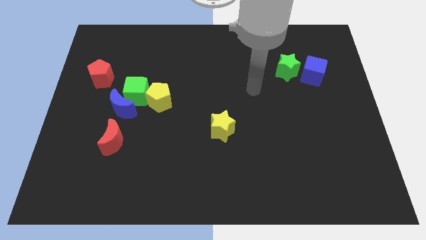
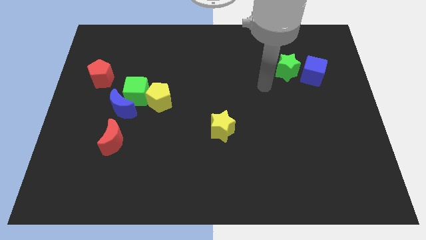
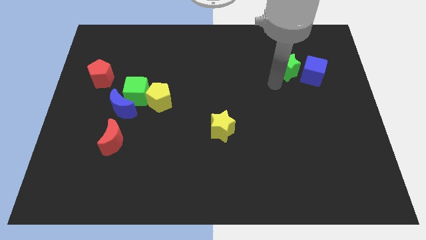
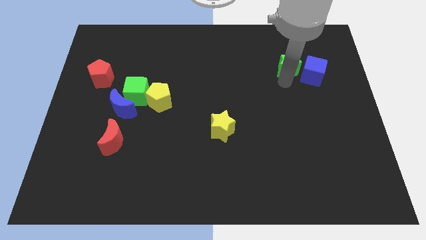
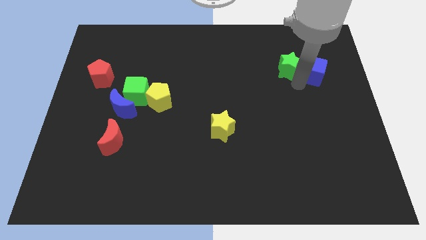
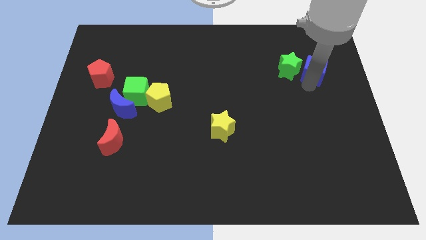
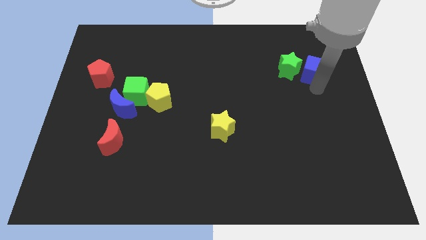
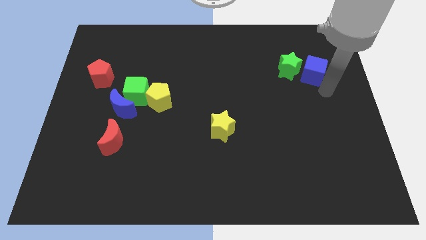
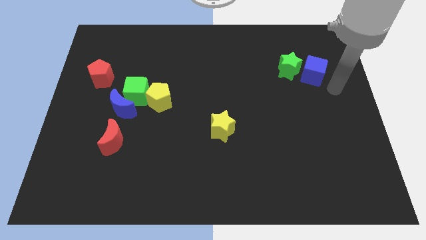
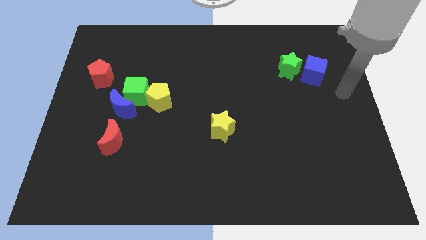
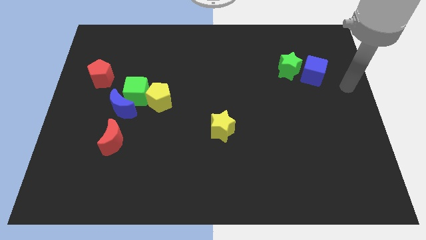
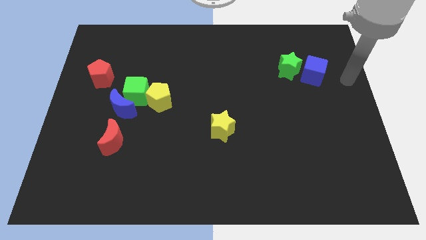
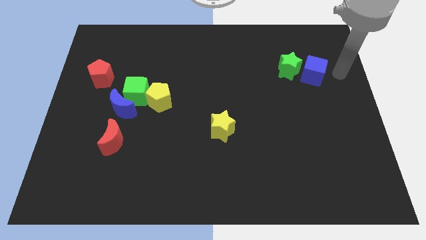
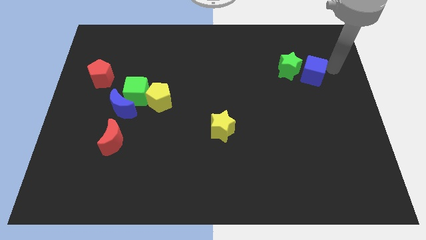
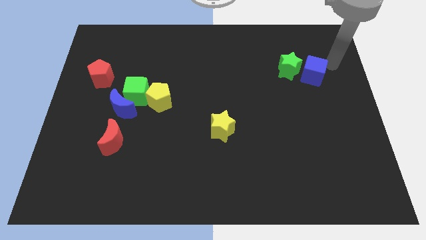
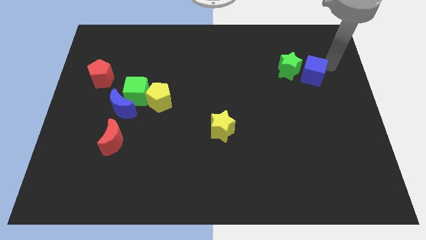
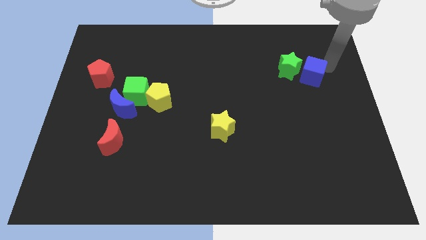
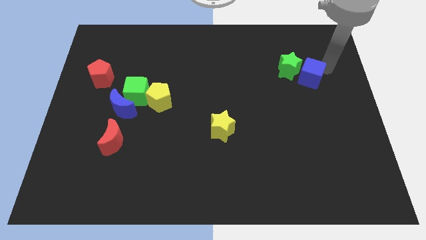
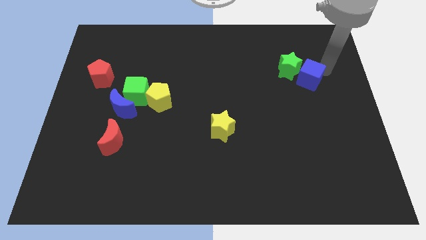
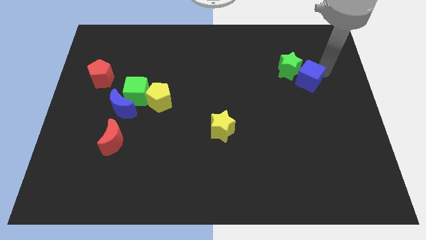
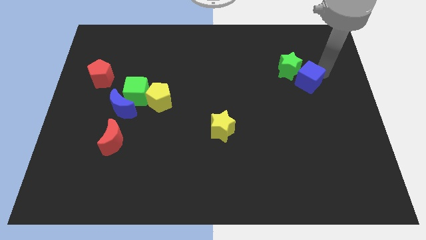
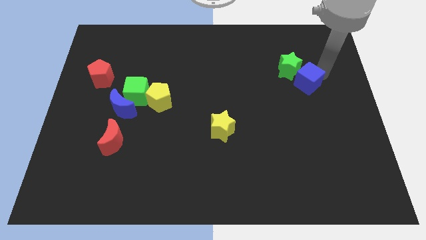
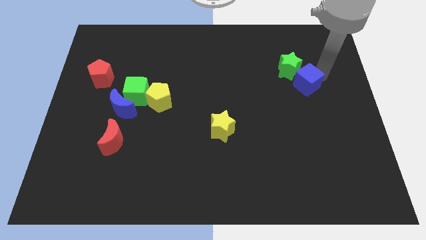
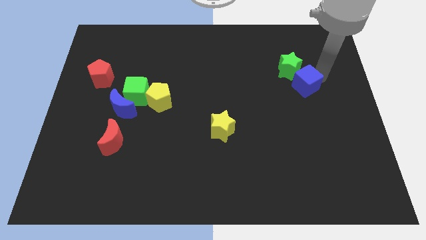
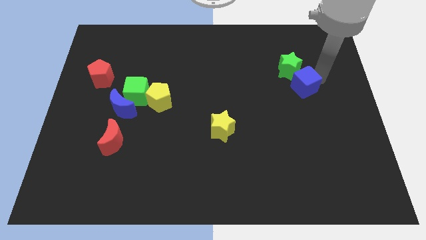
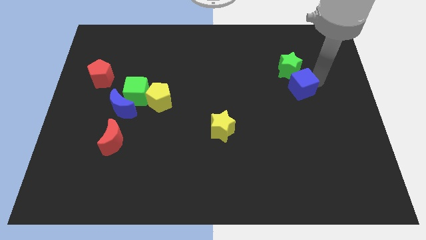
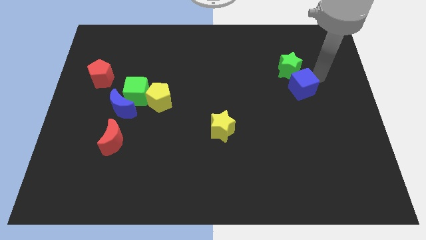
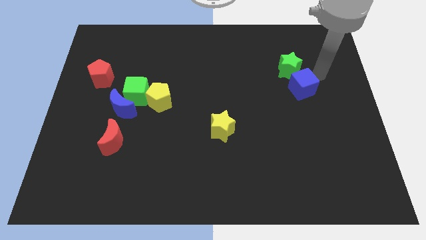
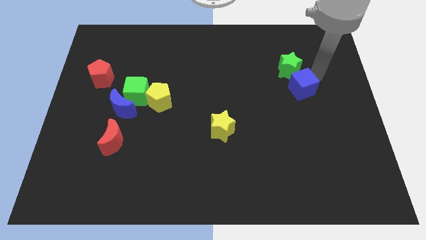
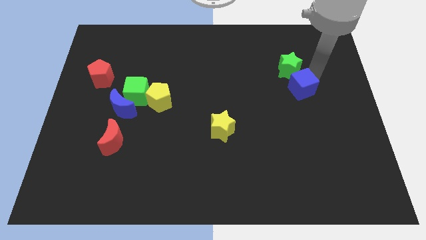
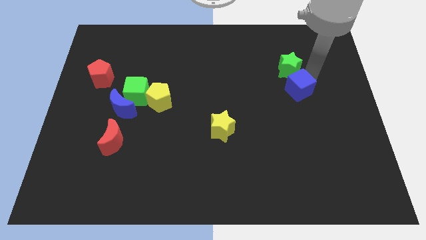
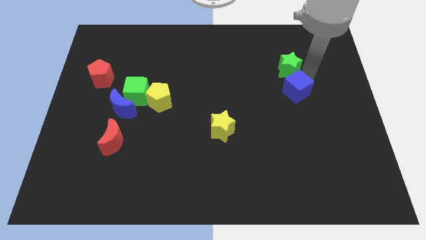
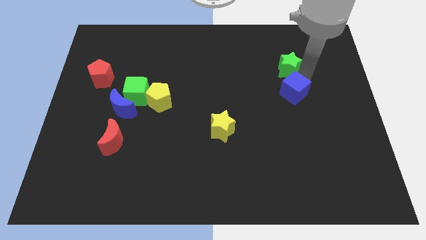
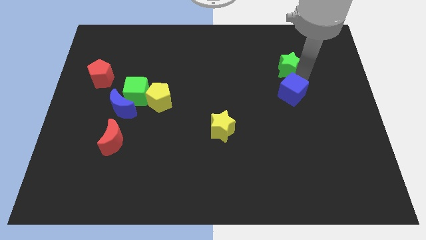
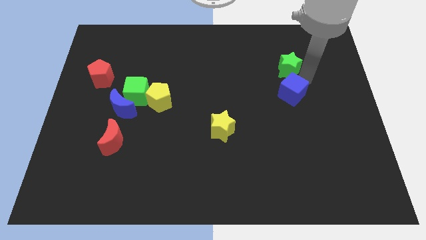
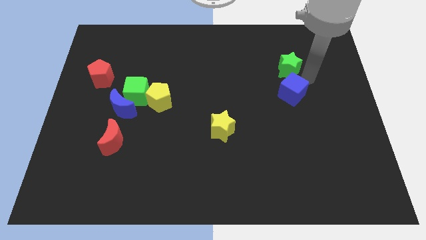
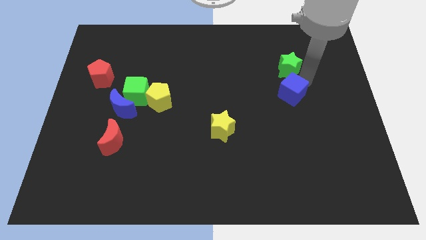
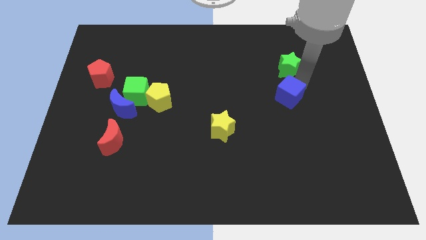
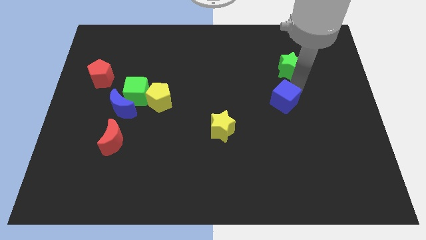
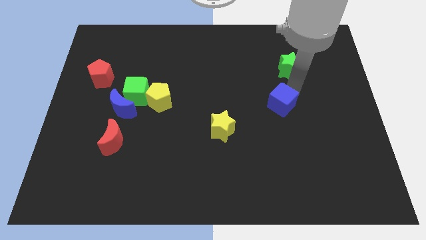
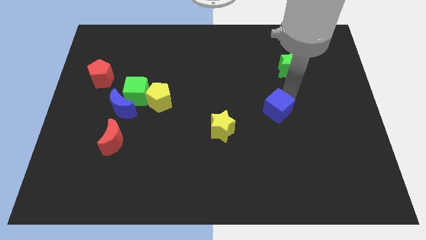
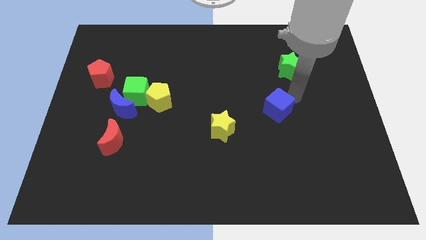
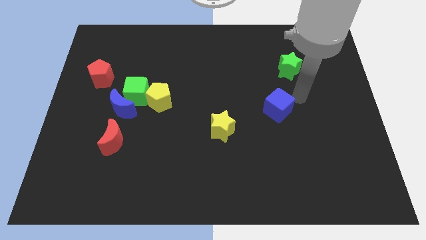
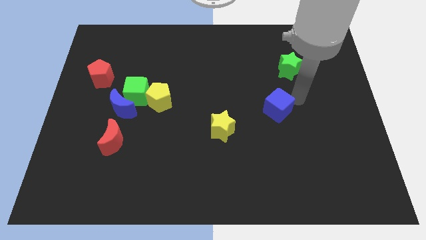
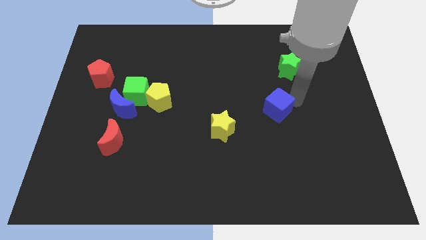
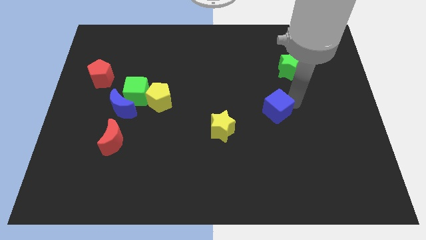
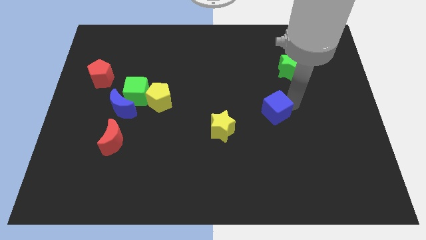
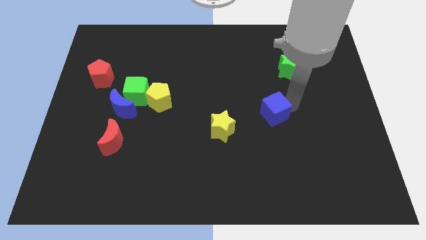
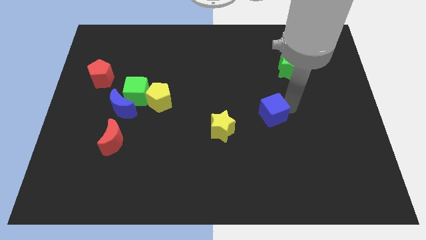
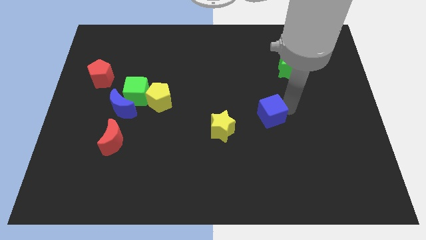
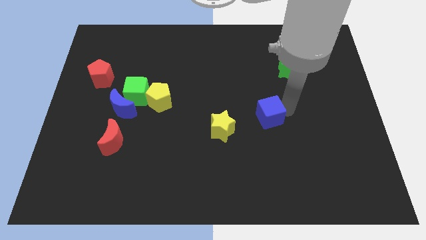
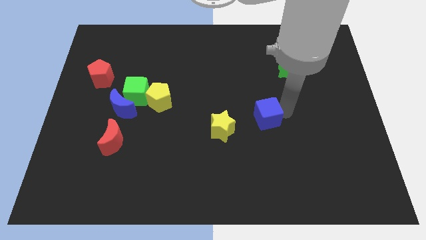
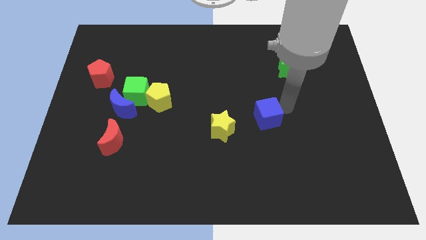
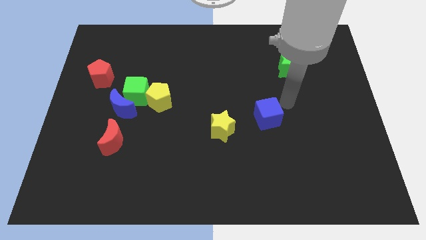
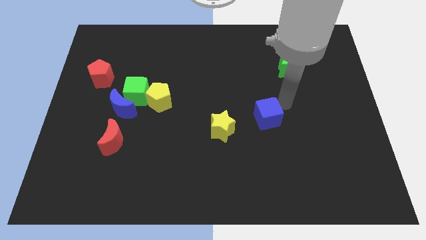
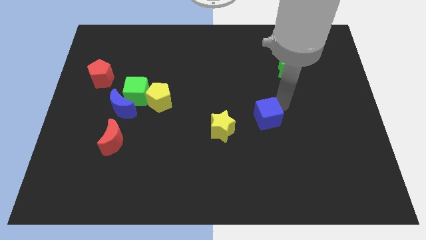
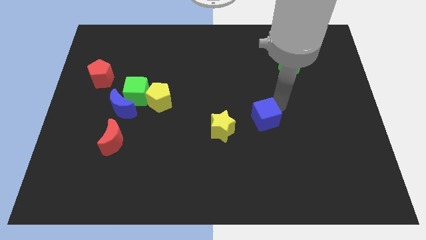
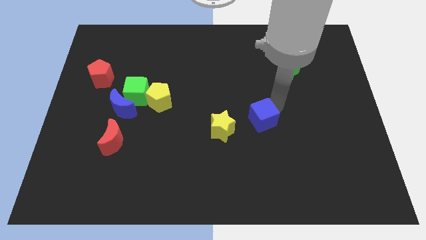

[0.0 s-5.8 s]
move the blue cube downwards and then left

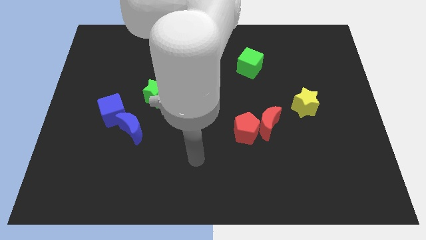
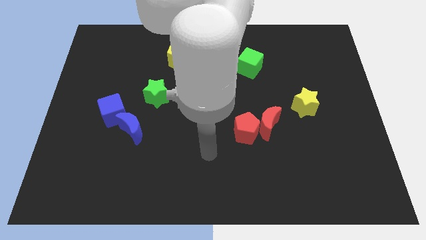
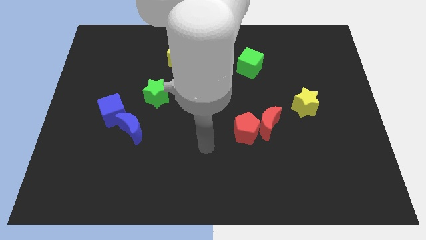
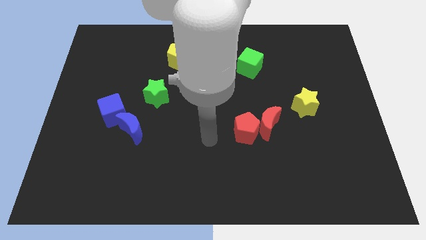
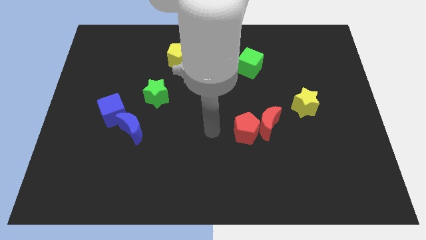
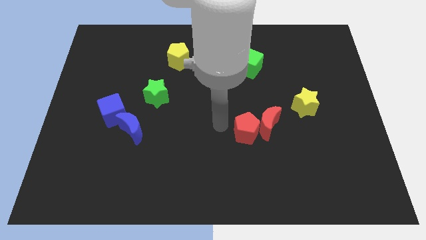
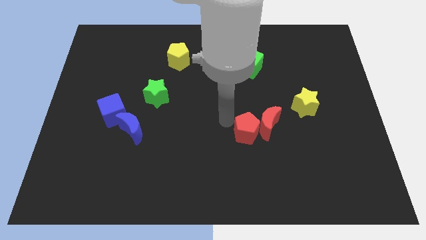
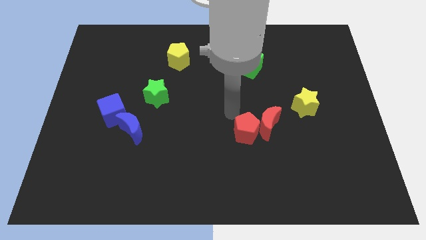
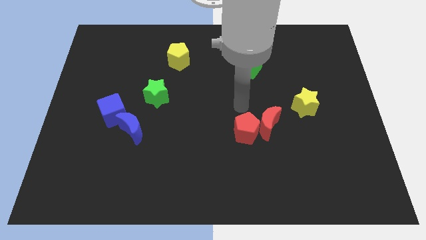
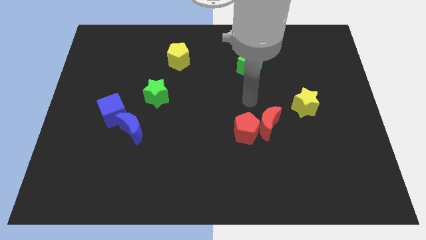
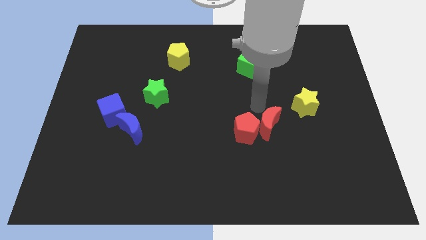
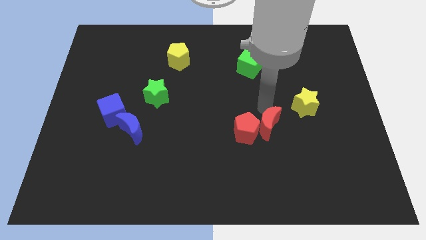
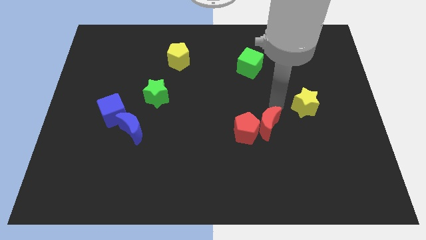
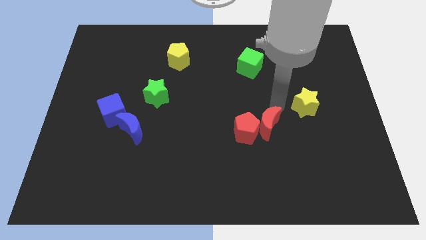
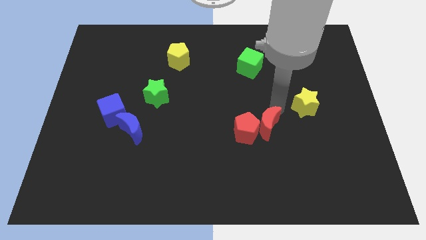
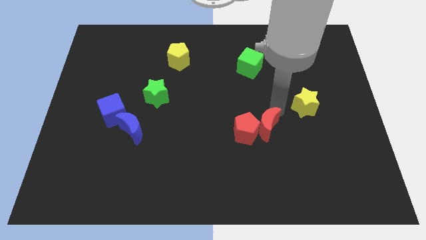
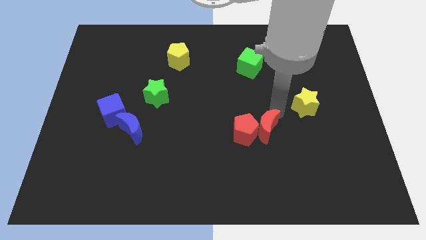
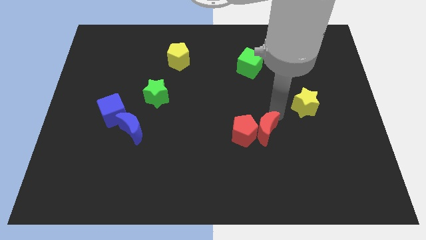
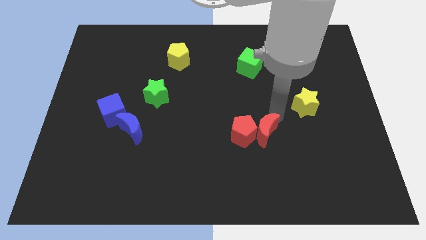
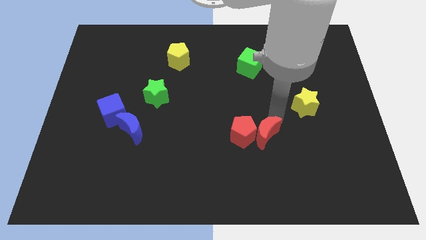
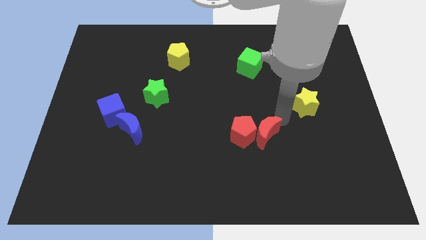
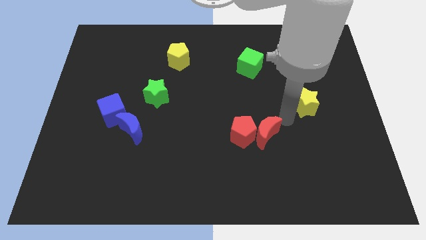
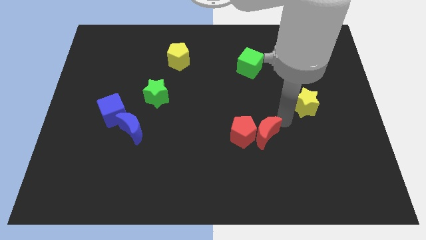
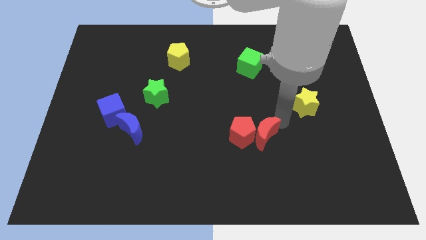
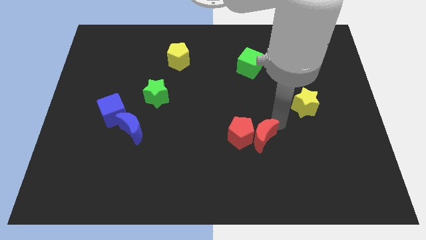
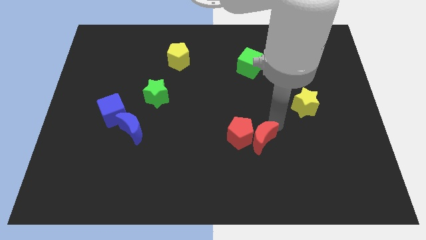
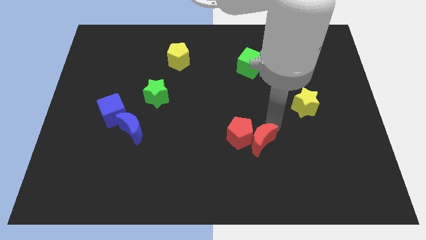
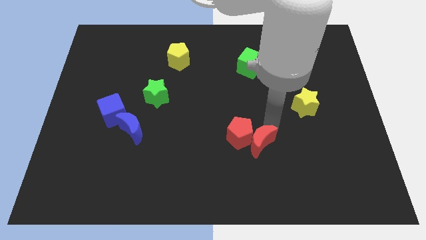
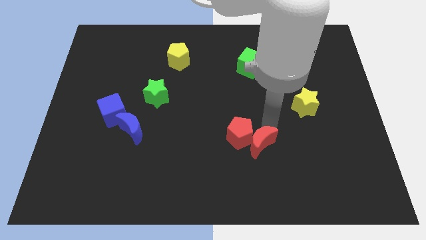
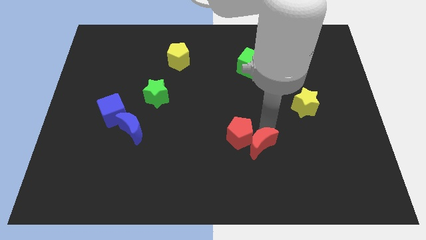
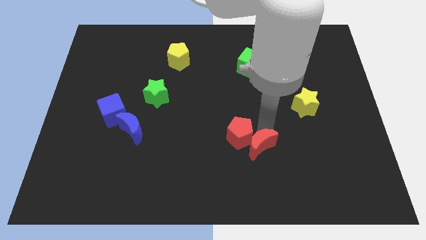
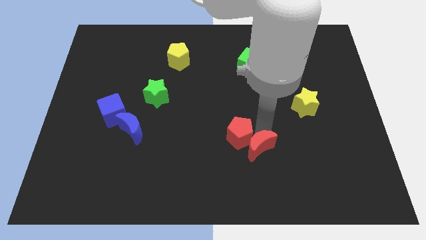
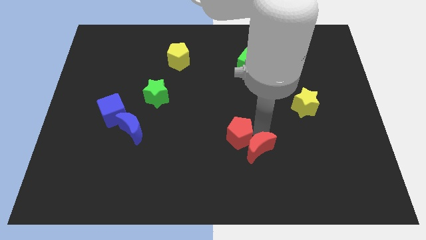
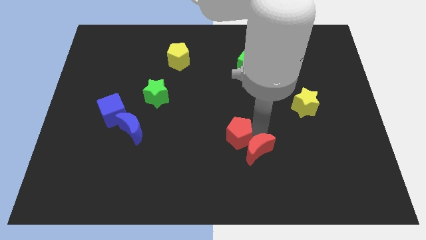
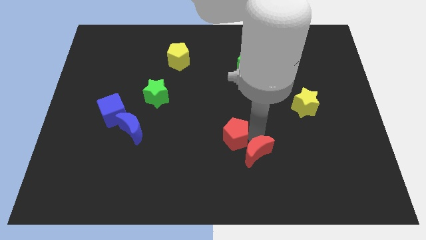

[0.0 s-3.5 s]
slightly move the red moon downwards and then to the left
